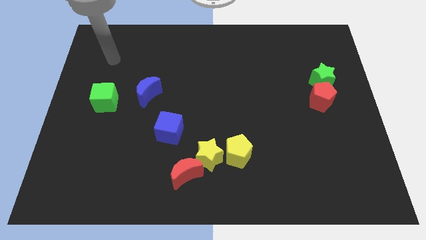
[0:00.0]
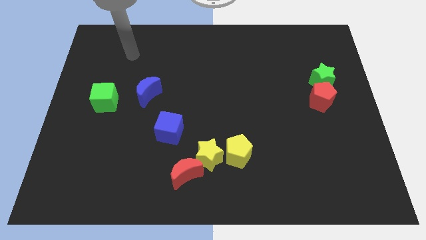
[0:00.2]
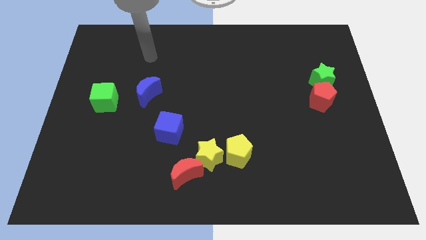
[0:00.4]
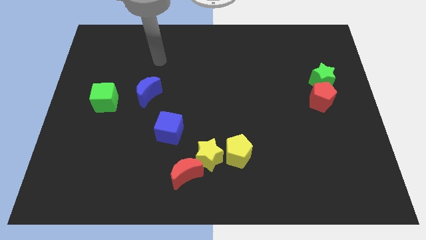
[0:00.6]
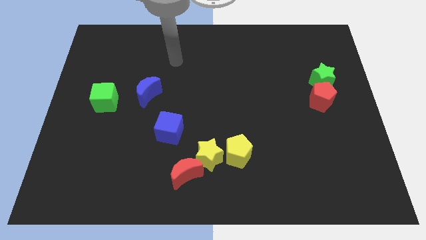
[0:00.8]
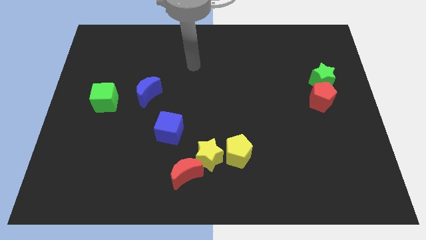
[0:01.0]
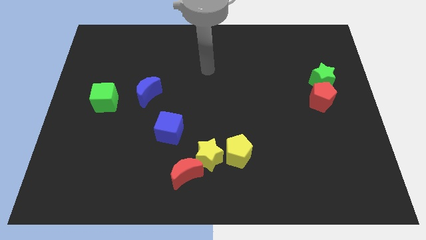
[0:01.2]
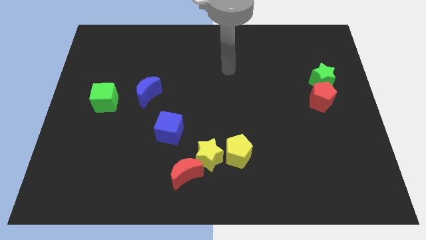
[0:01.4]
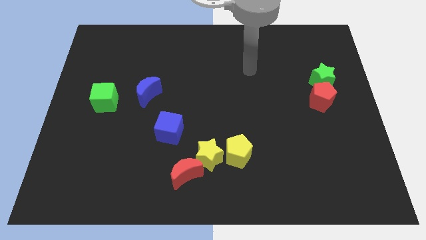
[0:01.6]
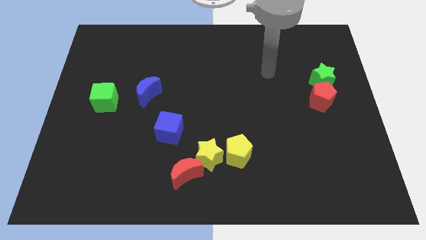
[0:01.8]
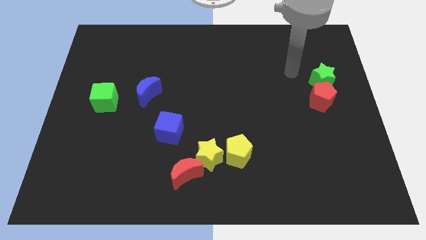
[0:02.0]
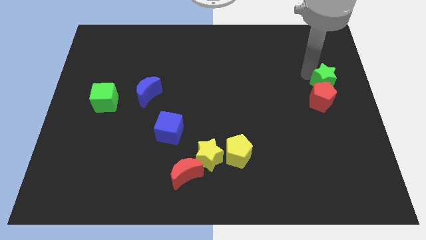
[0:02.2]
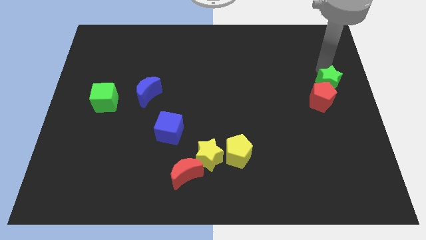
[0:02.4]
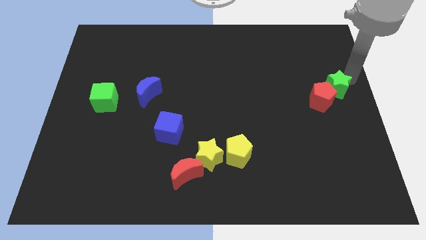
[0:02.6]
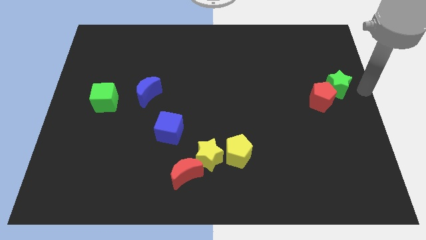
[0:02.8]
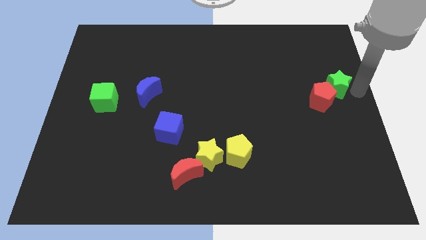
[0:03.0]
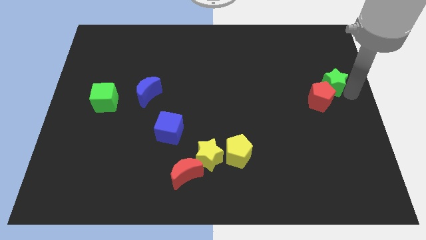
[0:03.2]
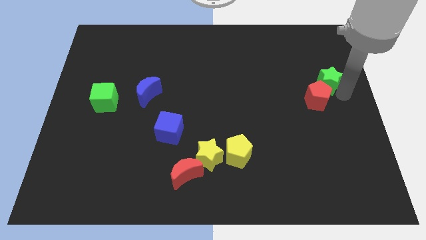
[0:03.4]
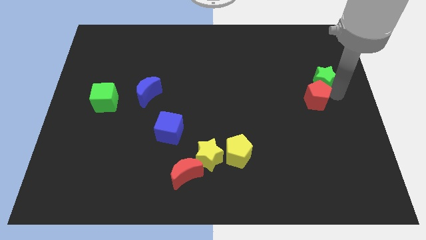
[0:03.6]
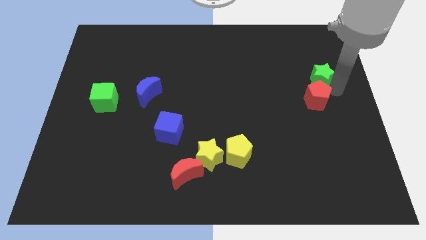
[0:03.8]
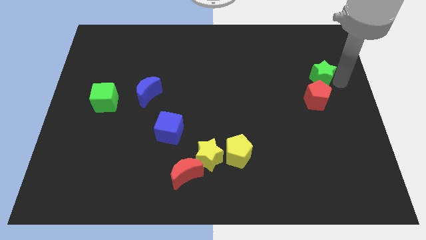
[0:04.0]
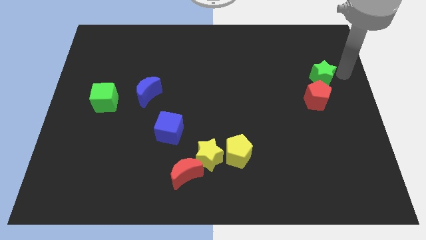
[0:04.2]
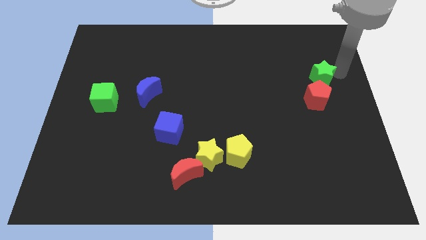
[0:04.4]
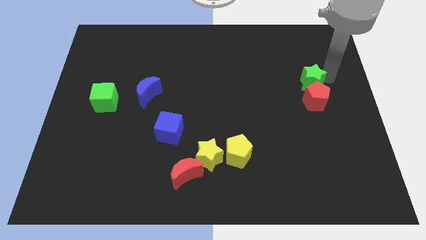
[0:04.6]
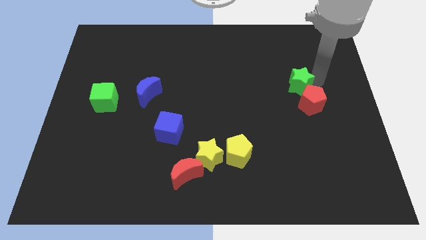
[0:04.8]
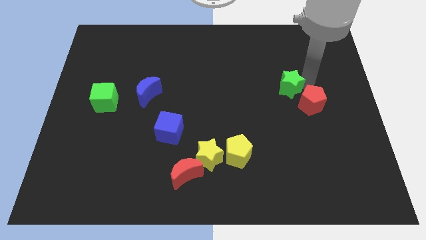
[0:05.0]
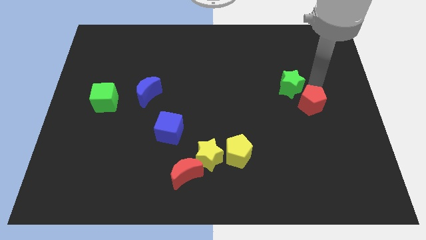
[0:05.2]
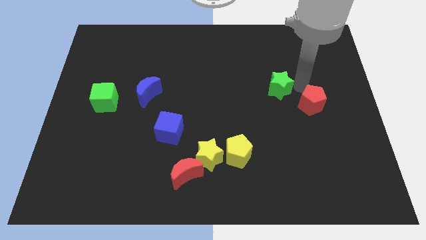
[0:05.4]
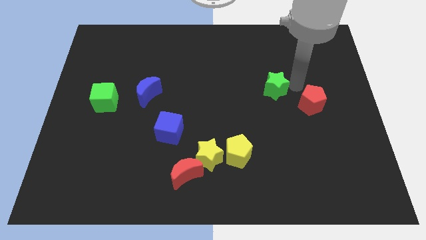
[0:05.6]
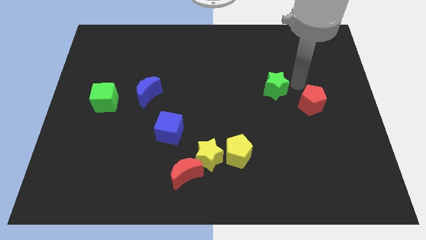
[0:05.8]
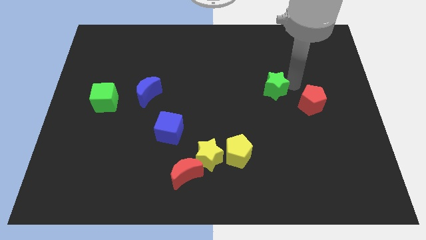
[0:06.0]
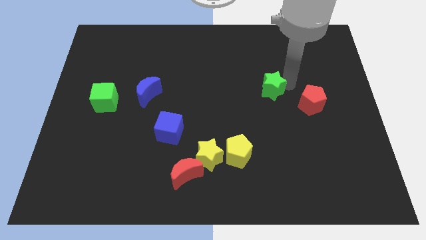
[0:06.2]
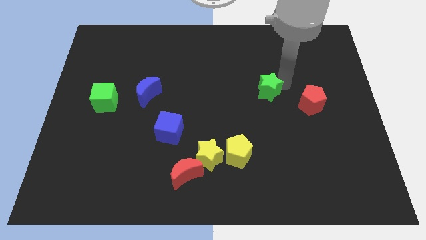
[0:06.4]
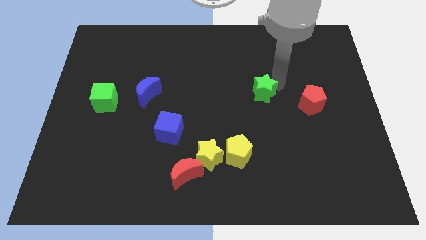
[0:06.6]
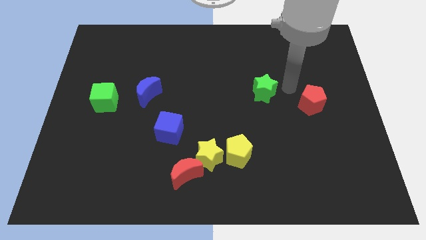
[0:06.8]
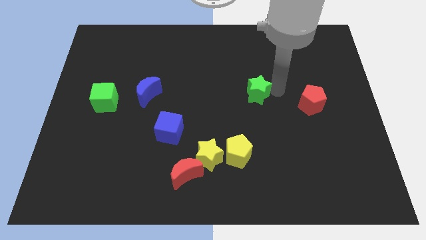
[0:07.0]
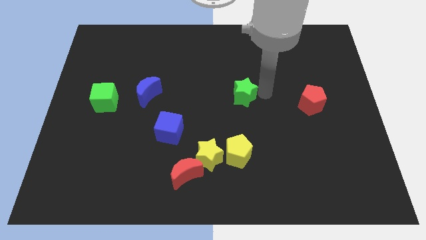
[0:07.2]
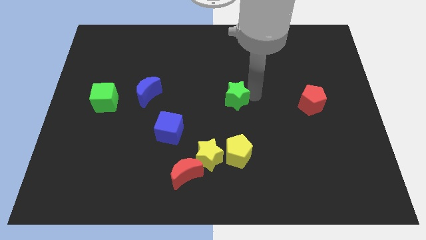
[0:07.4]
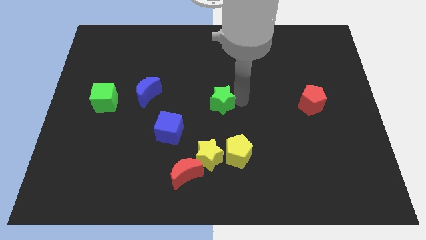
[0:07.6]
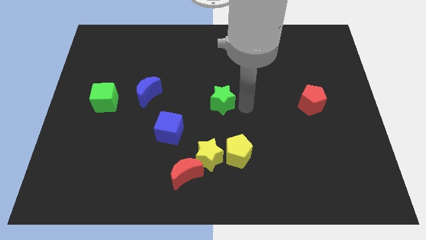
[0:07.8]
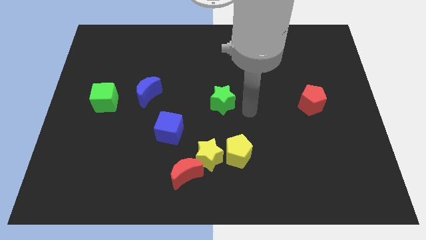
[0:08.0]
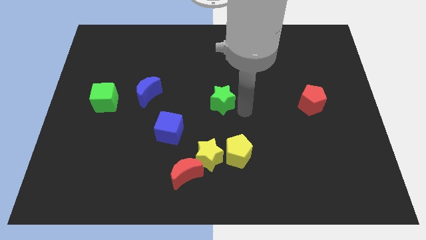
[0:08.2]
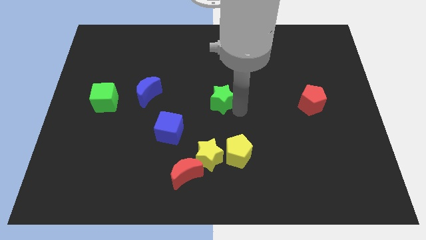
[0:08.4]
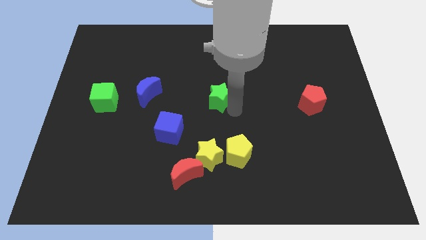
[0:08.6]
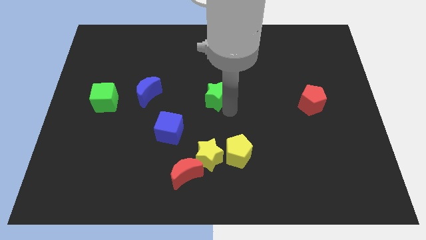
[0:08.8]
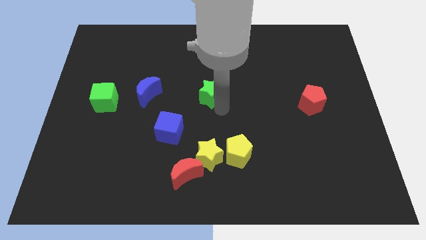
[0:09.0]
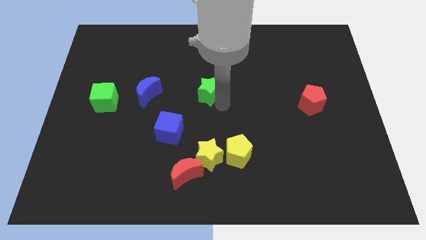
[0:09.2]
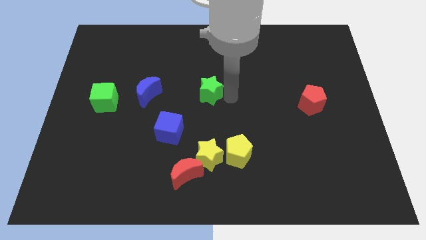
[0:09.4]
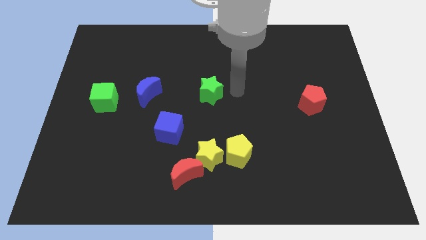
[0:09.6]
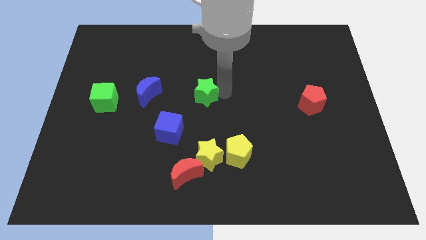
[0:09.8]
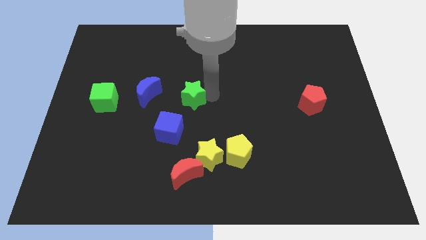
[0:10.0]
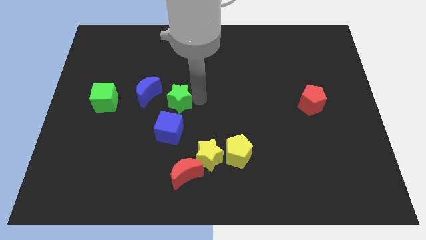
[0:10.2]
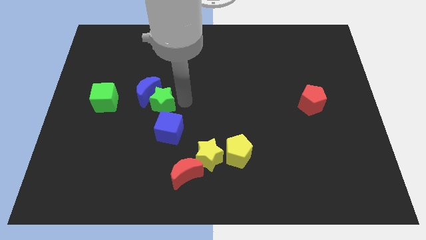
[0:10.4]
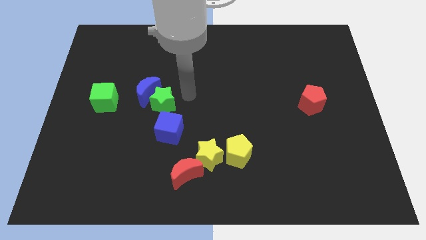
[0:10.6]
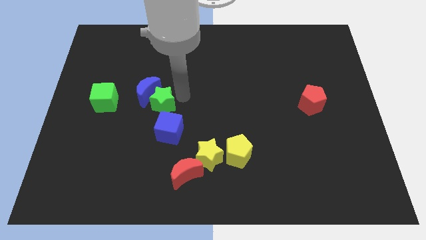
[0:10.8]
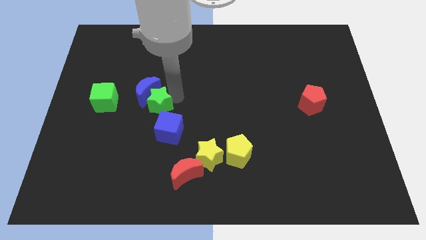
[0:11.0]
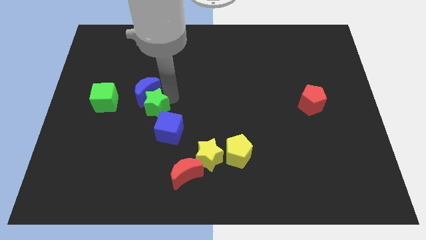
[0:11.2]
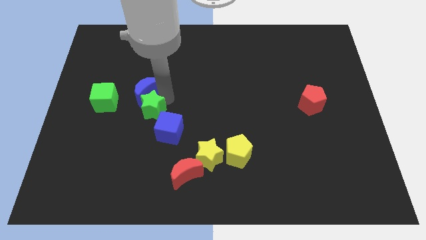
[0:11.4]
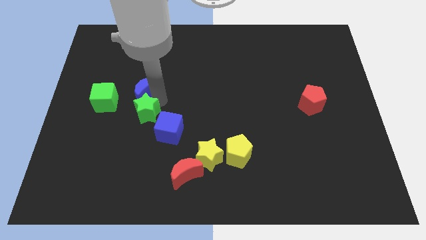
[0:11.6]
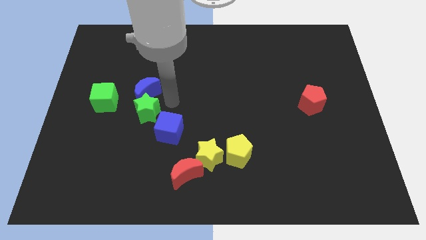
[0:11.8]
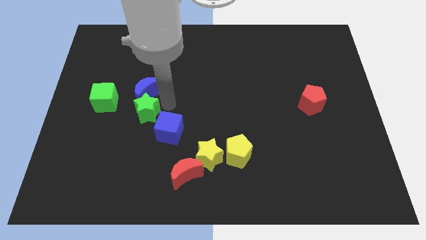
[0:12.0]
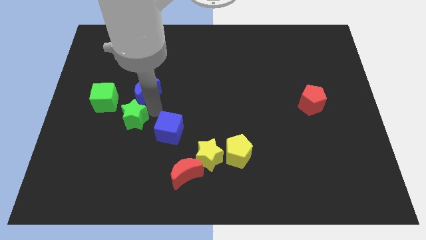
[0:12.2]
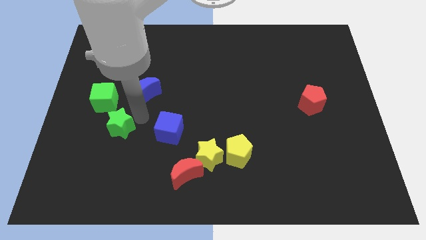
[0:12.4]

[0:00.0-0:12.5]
move the green star below the green cube

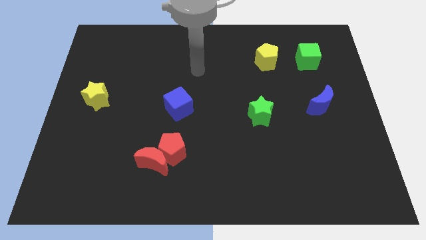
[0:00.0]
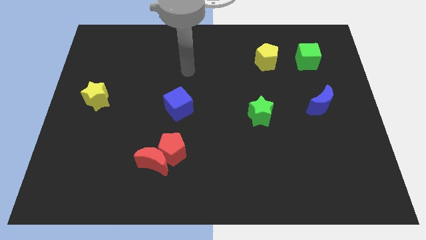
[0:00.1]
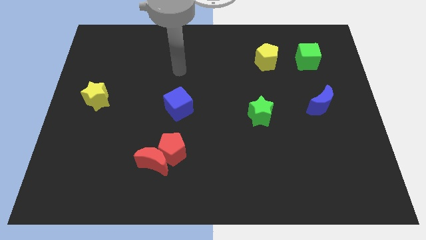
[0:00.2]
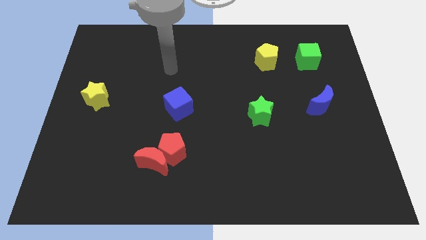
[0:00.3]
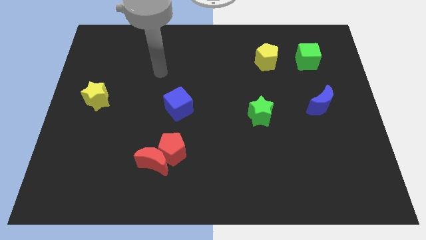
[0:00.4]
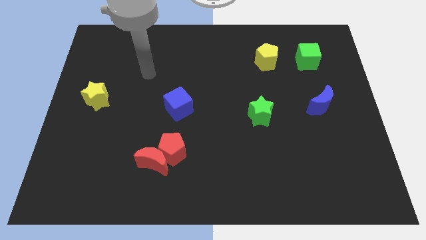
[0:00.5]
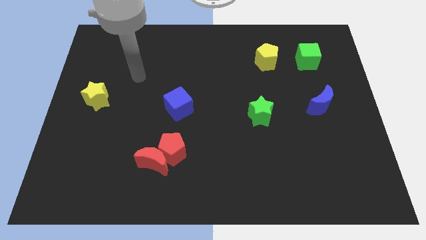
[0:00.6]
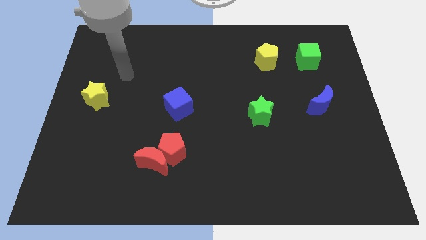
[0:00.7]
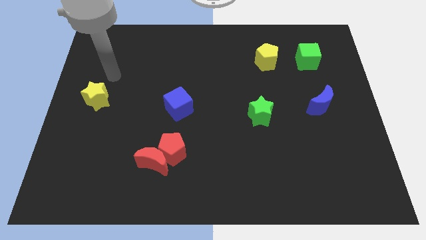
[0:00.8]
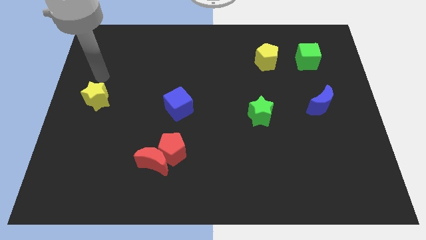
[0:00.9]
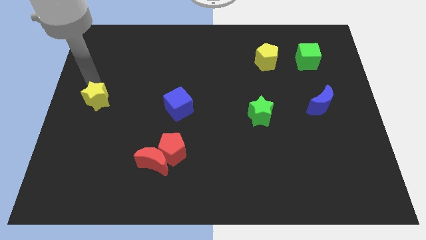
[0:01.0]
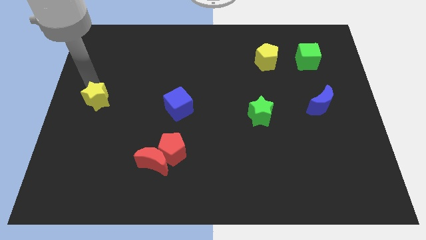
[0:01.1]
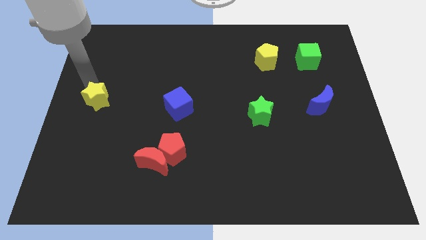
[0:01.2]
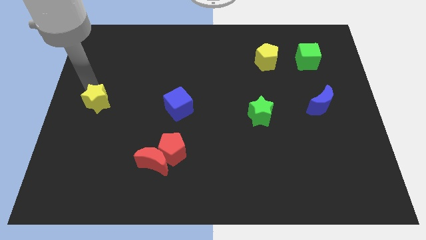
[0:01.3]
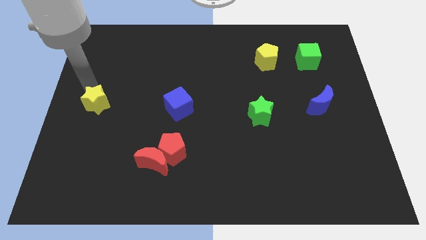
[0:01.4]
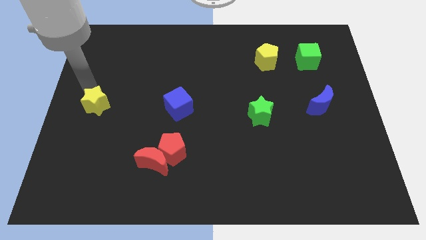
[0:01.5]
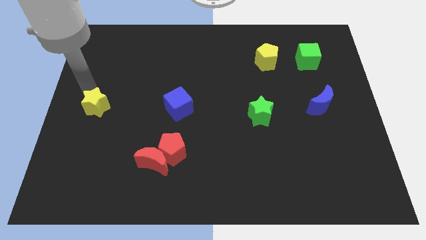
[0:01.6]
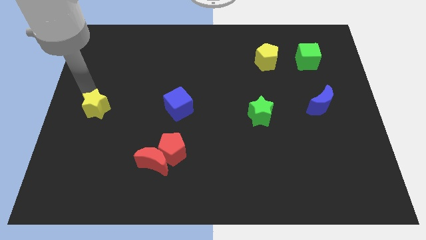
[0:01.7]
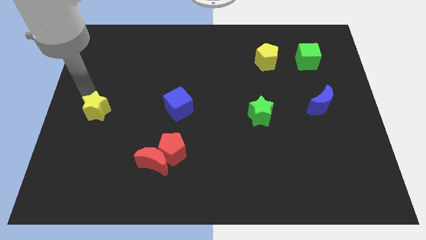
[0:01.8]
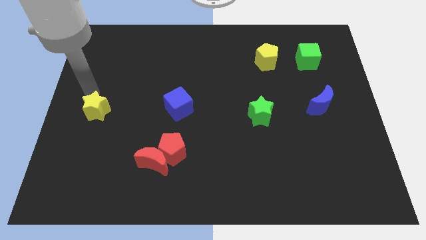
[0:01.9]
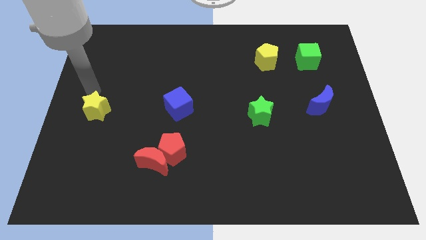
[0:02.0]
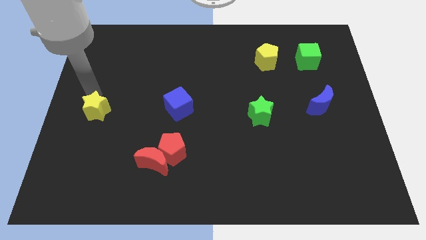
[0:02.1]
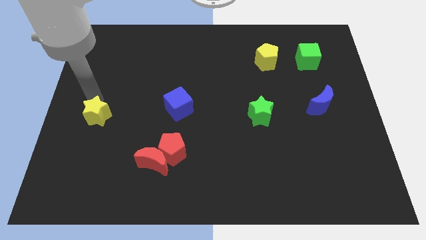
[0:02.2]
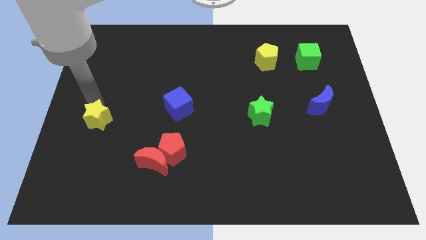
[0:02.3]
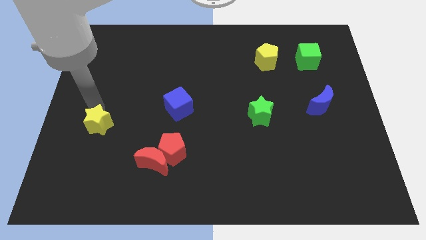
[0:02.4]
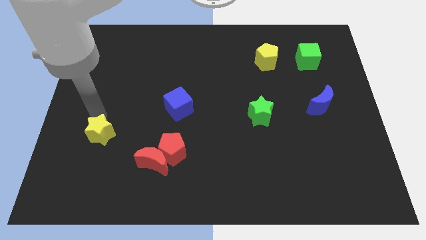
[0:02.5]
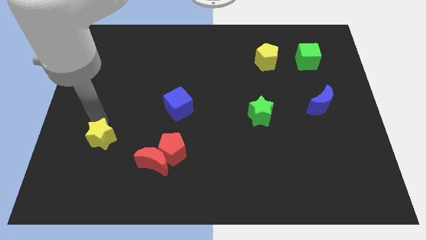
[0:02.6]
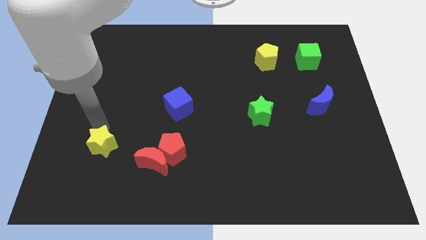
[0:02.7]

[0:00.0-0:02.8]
push the yellow star just left of the red moon
